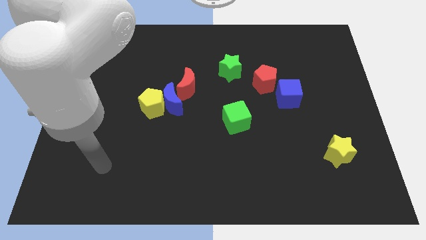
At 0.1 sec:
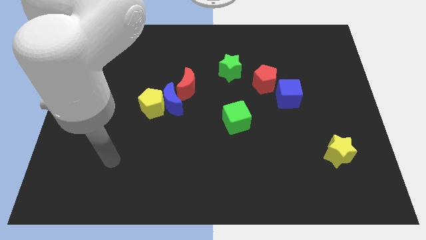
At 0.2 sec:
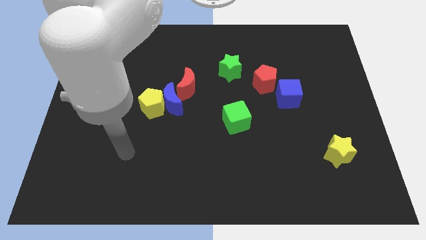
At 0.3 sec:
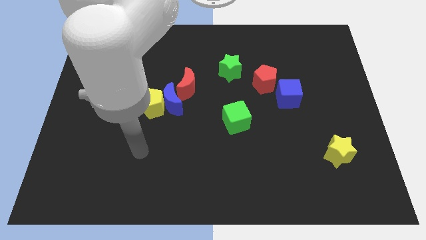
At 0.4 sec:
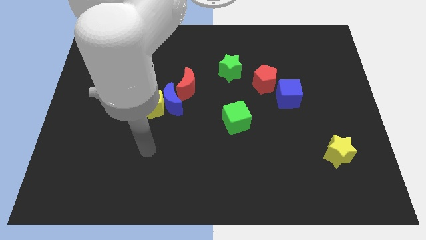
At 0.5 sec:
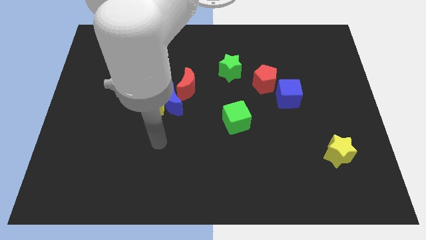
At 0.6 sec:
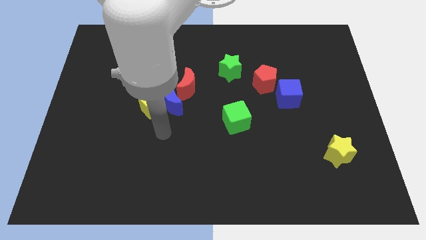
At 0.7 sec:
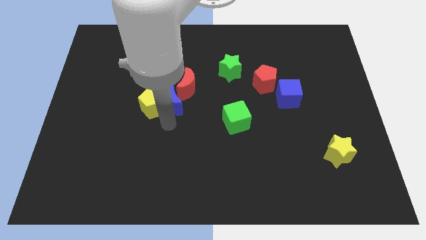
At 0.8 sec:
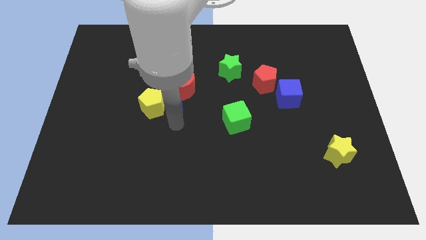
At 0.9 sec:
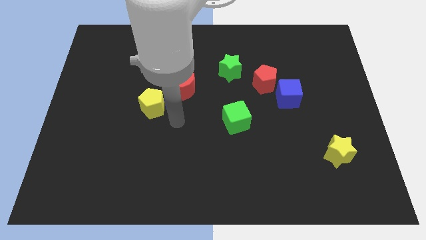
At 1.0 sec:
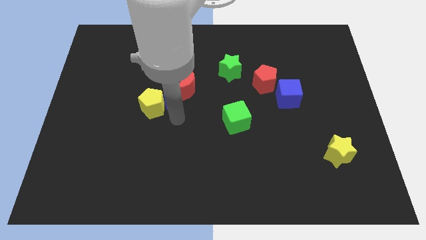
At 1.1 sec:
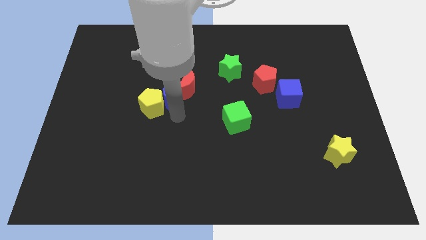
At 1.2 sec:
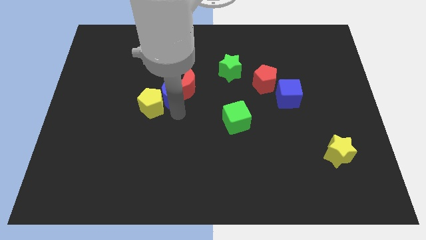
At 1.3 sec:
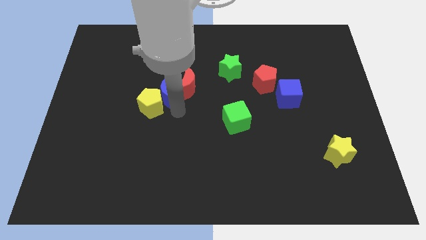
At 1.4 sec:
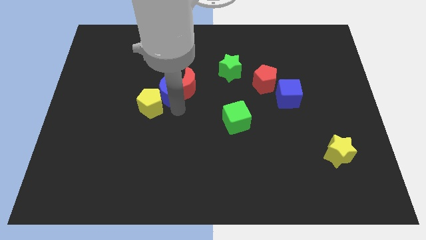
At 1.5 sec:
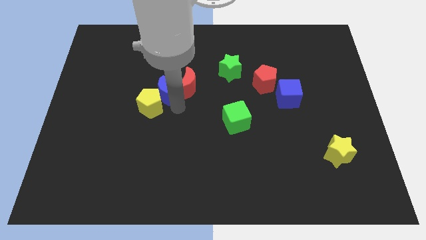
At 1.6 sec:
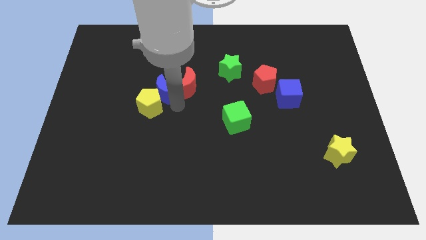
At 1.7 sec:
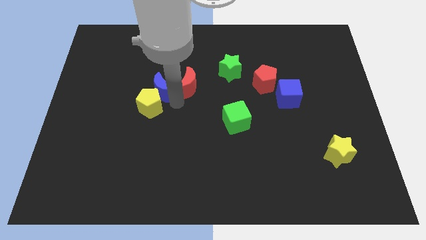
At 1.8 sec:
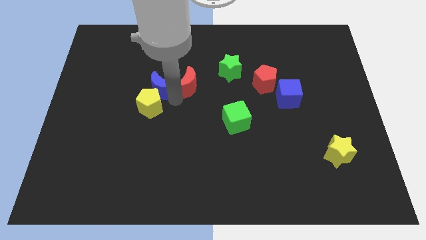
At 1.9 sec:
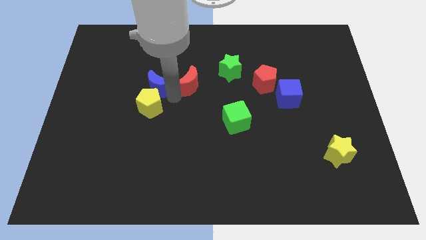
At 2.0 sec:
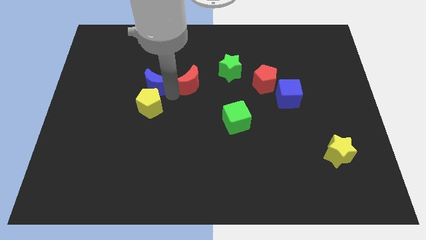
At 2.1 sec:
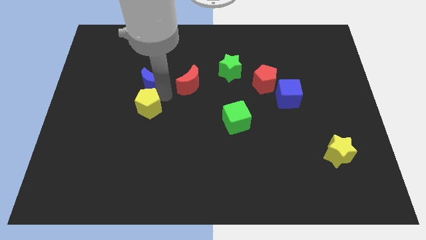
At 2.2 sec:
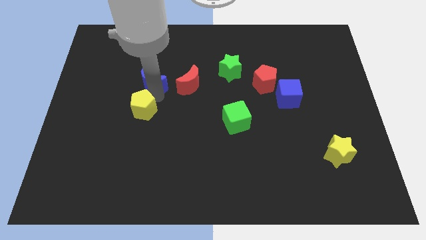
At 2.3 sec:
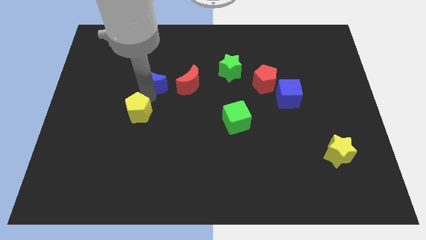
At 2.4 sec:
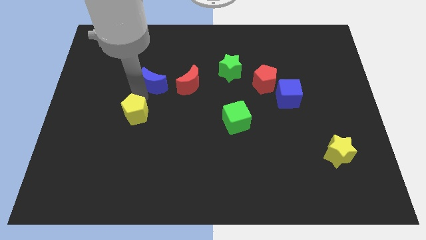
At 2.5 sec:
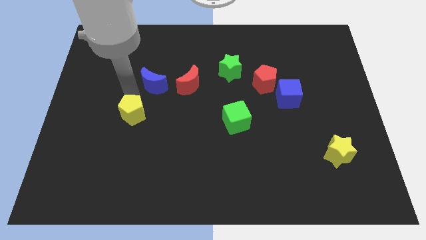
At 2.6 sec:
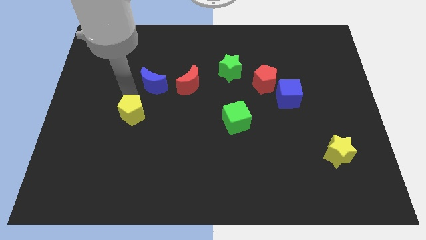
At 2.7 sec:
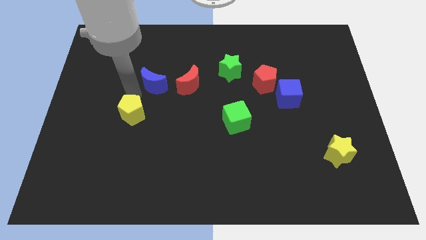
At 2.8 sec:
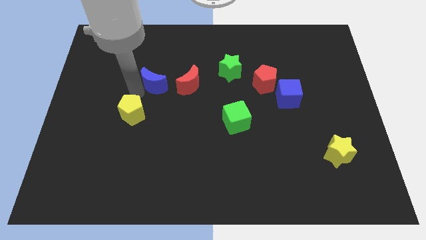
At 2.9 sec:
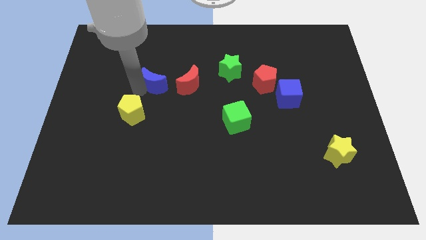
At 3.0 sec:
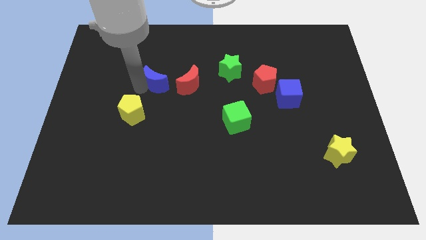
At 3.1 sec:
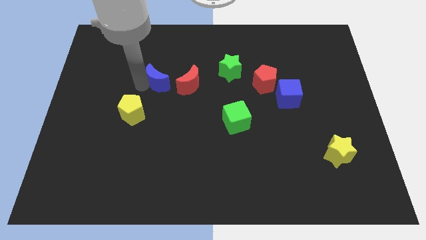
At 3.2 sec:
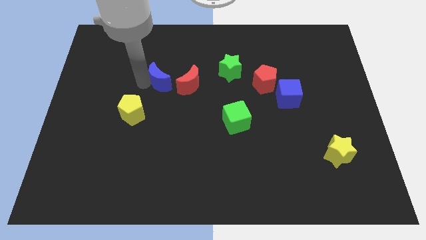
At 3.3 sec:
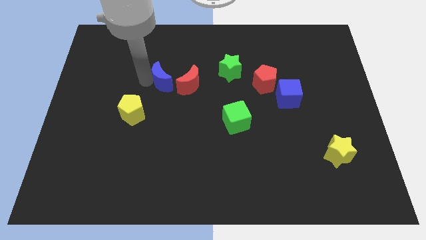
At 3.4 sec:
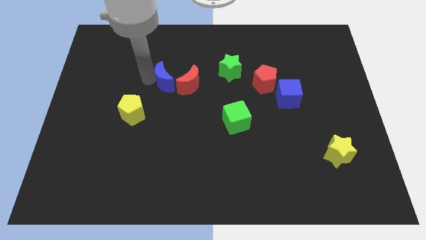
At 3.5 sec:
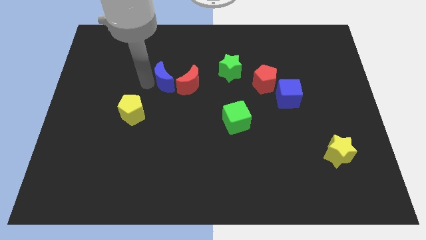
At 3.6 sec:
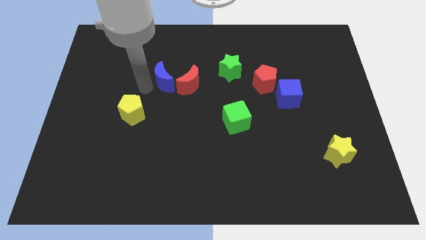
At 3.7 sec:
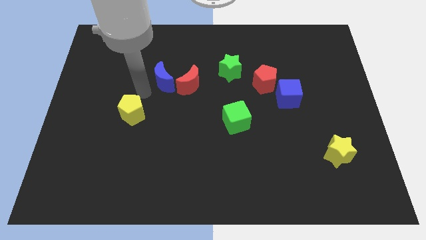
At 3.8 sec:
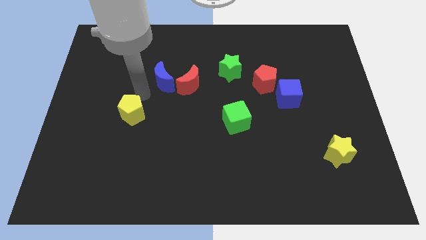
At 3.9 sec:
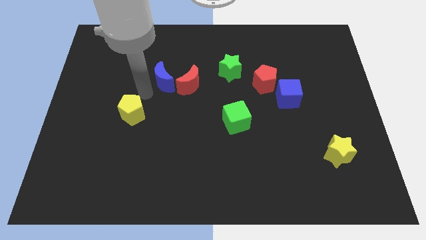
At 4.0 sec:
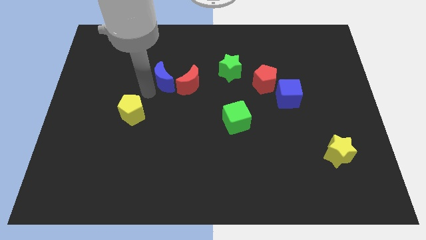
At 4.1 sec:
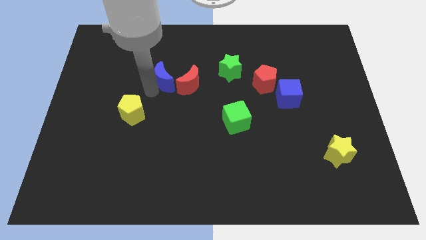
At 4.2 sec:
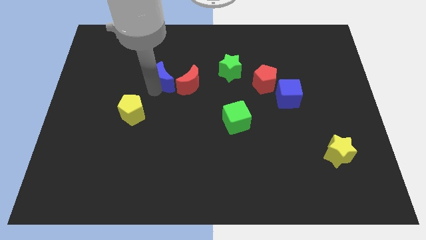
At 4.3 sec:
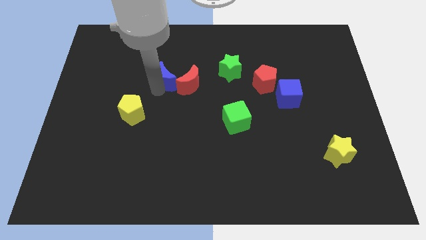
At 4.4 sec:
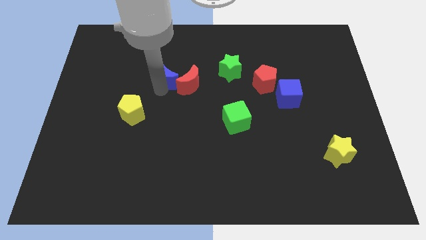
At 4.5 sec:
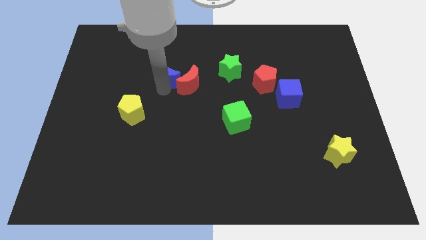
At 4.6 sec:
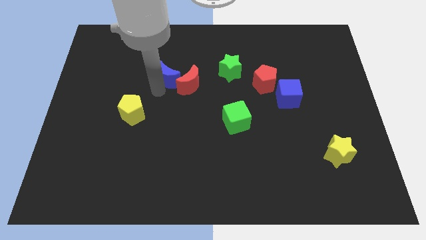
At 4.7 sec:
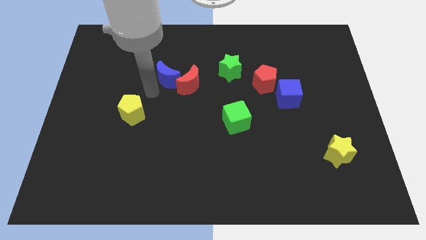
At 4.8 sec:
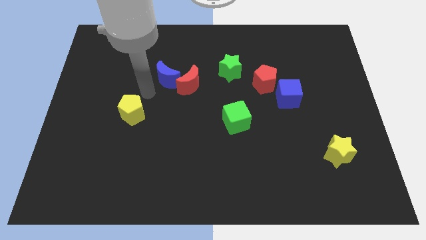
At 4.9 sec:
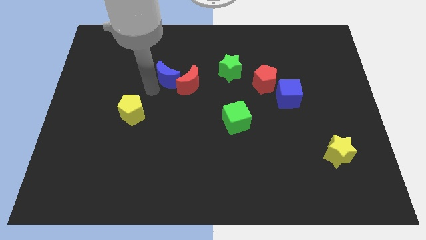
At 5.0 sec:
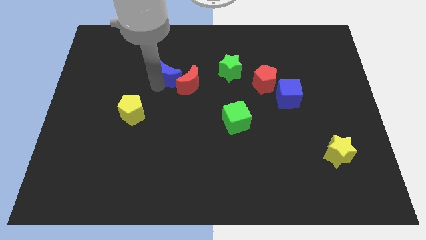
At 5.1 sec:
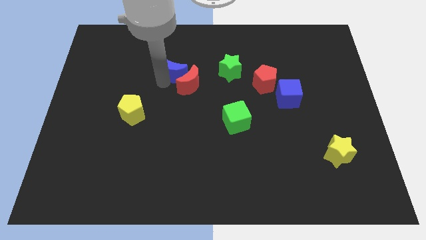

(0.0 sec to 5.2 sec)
push the blue moon above the red moon

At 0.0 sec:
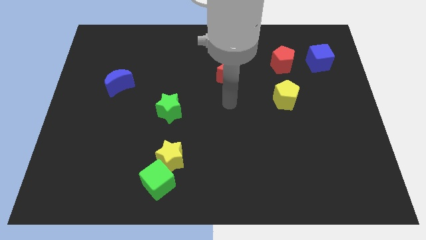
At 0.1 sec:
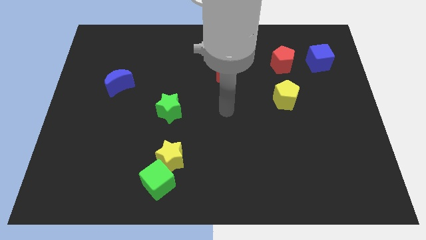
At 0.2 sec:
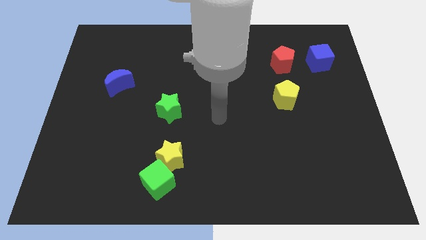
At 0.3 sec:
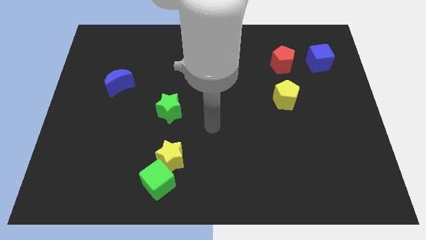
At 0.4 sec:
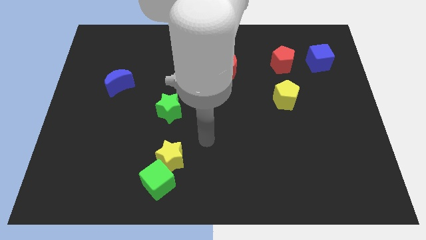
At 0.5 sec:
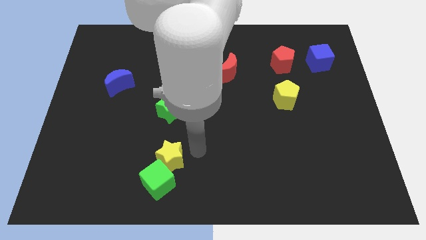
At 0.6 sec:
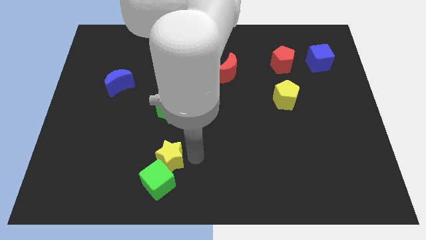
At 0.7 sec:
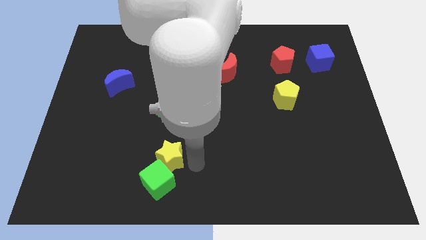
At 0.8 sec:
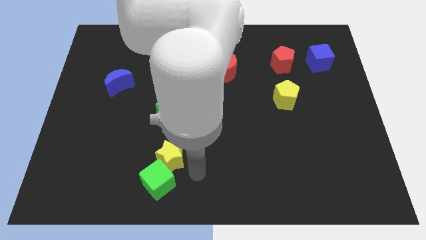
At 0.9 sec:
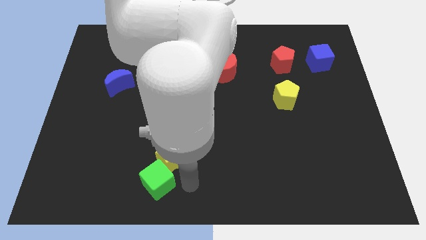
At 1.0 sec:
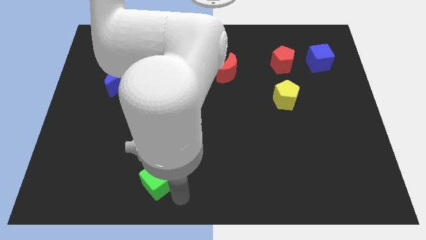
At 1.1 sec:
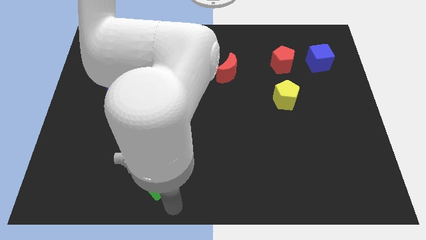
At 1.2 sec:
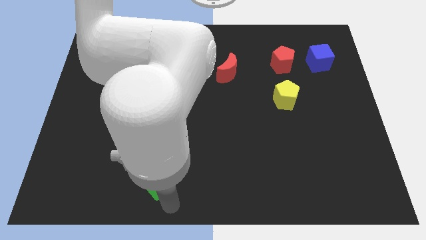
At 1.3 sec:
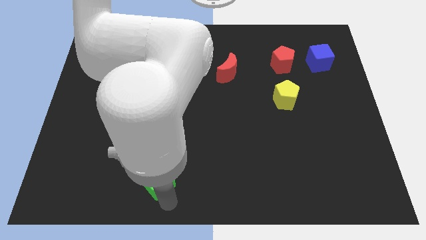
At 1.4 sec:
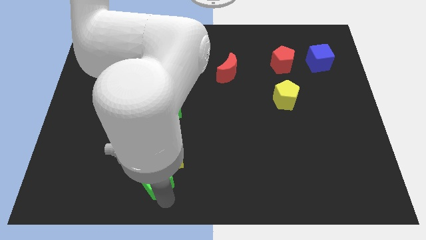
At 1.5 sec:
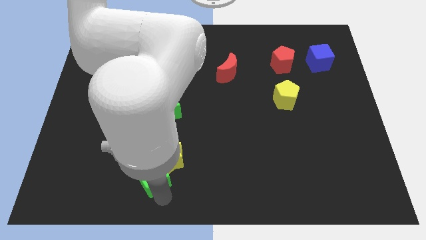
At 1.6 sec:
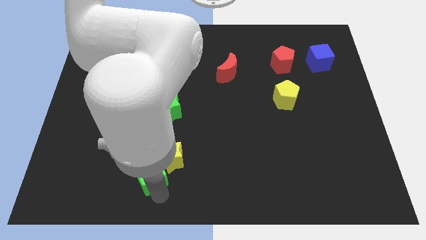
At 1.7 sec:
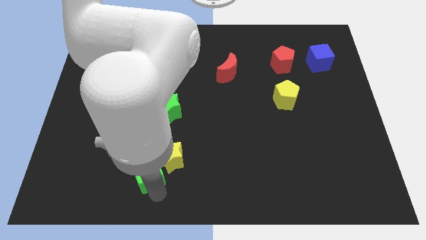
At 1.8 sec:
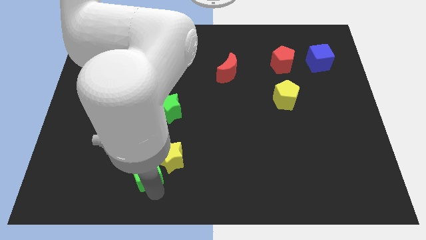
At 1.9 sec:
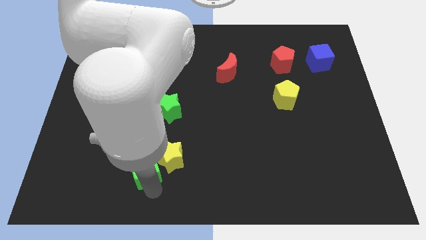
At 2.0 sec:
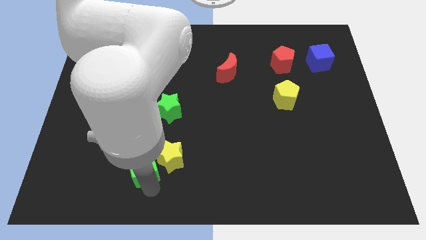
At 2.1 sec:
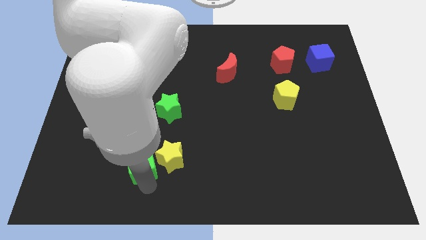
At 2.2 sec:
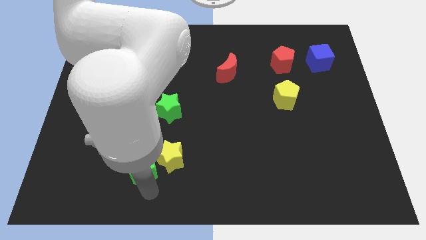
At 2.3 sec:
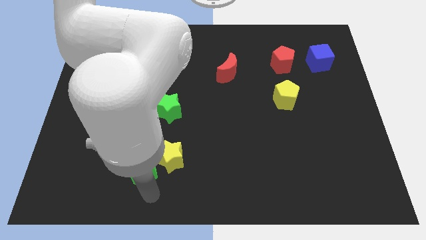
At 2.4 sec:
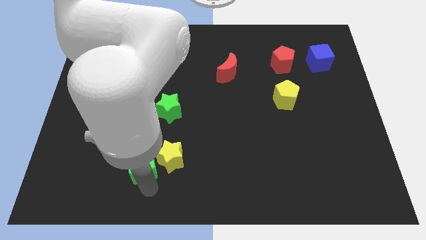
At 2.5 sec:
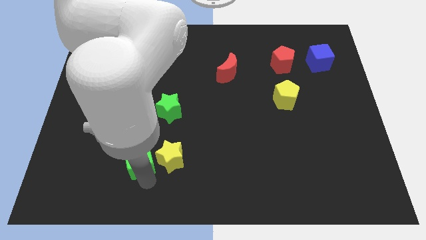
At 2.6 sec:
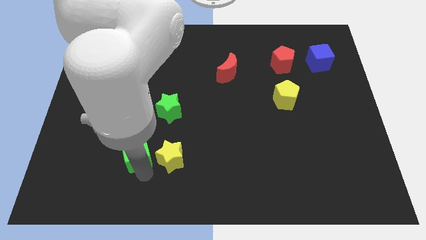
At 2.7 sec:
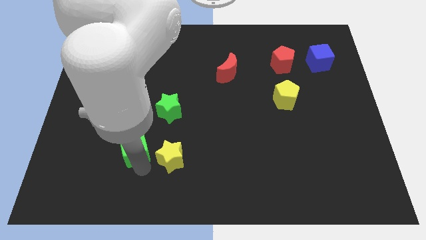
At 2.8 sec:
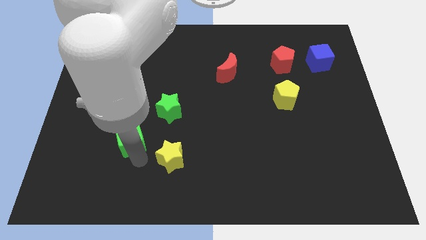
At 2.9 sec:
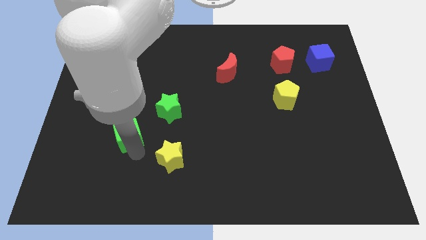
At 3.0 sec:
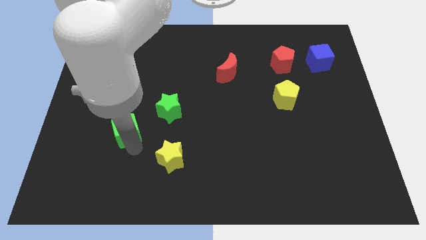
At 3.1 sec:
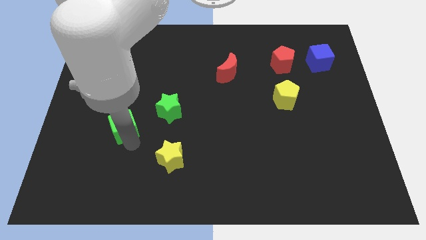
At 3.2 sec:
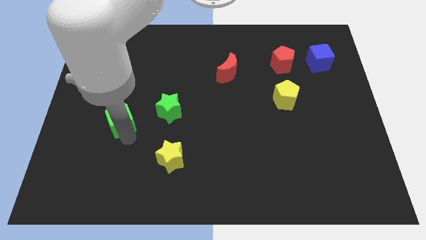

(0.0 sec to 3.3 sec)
put the green cube left of the green star
